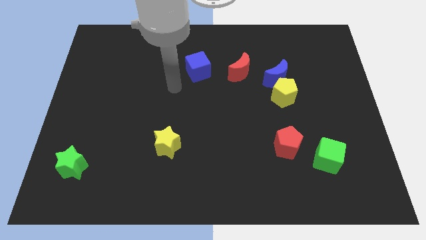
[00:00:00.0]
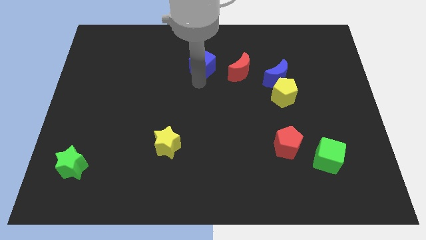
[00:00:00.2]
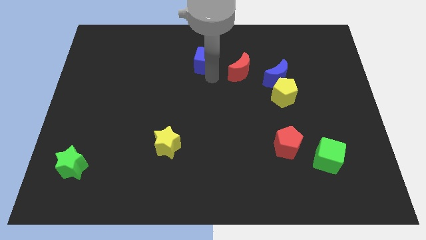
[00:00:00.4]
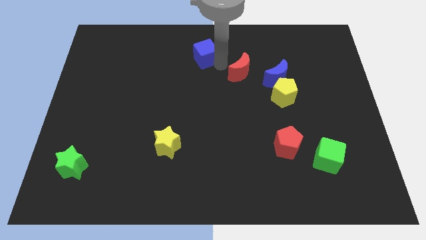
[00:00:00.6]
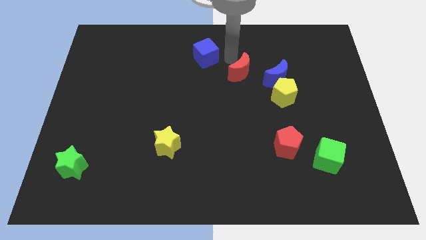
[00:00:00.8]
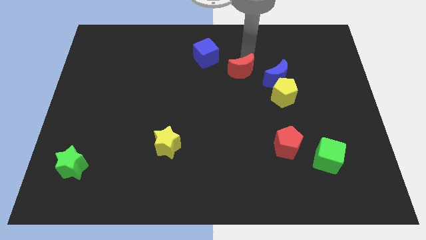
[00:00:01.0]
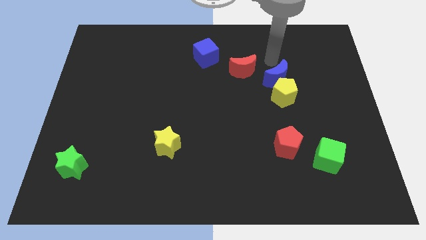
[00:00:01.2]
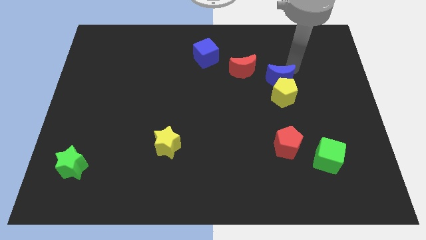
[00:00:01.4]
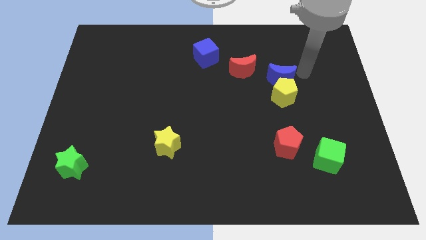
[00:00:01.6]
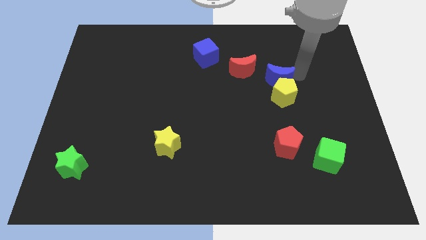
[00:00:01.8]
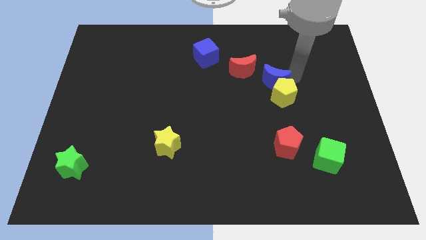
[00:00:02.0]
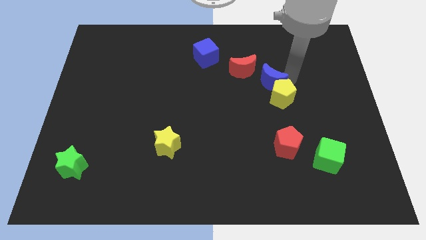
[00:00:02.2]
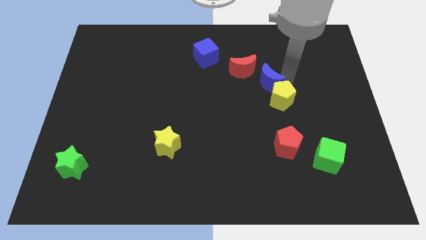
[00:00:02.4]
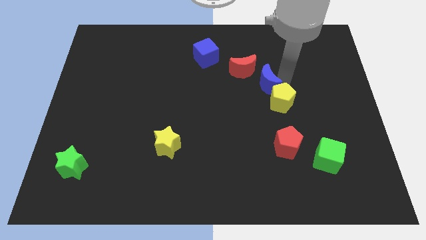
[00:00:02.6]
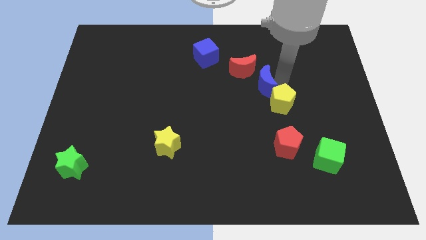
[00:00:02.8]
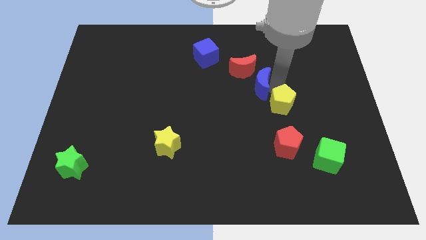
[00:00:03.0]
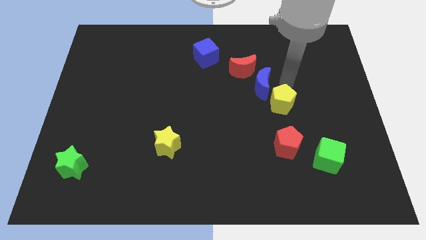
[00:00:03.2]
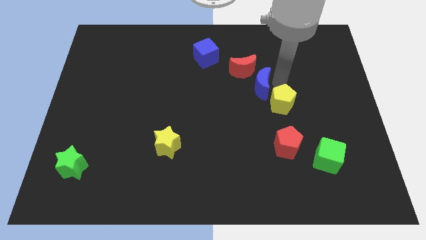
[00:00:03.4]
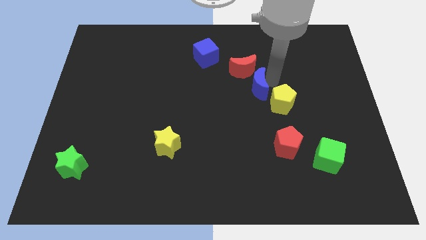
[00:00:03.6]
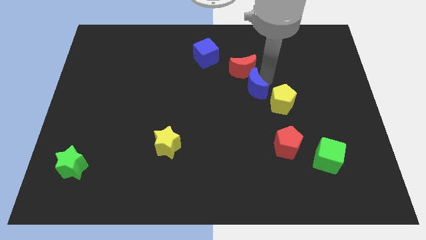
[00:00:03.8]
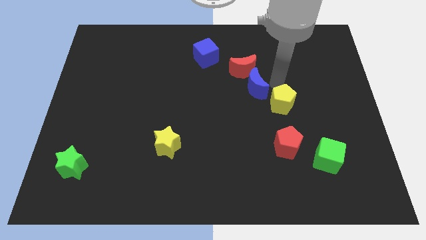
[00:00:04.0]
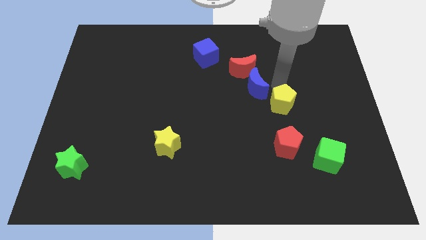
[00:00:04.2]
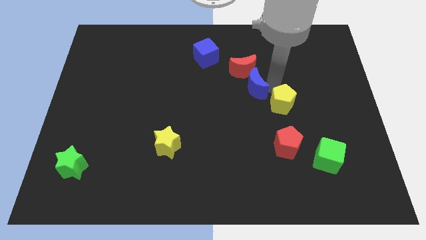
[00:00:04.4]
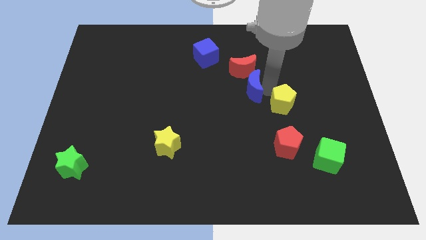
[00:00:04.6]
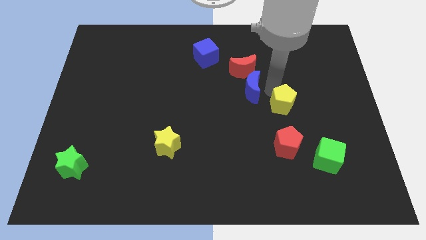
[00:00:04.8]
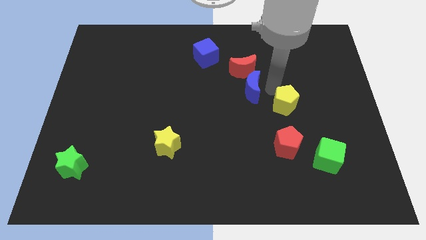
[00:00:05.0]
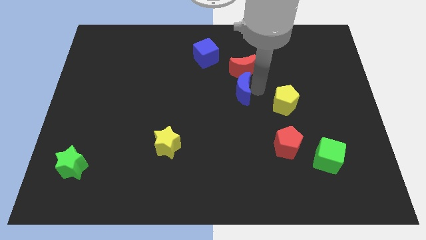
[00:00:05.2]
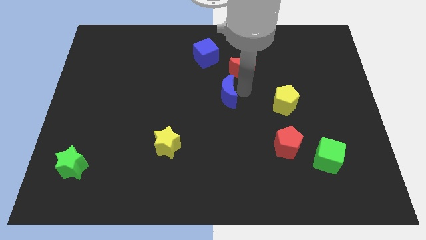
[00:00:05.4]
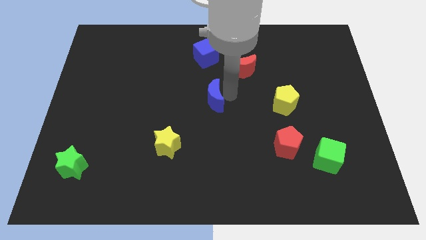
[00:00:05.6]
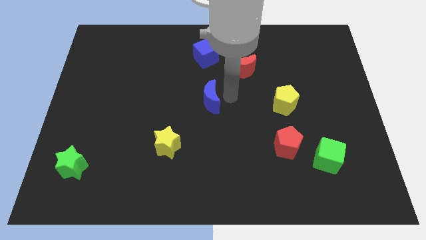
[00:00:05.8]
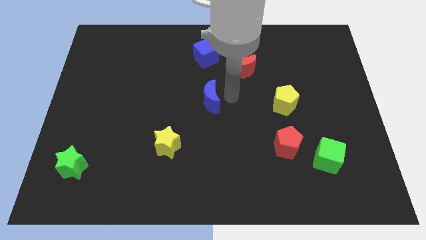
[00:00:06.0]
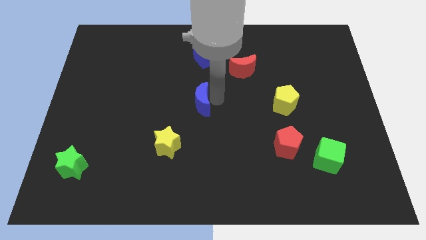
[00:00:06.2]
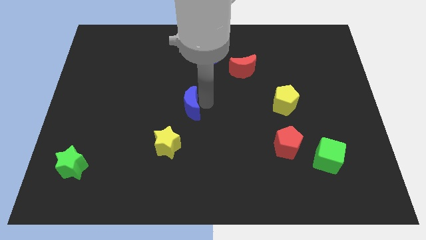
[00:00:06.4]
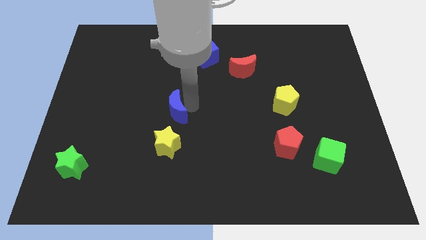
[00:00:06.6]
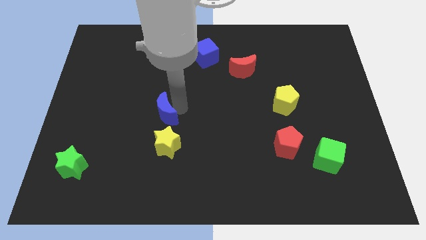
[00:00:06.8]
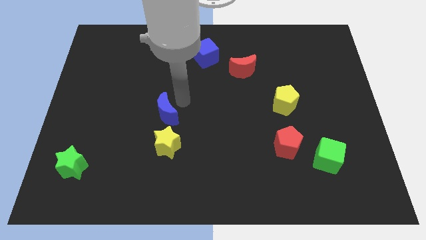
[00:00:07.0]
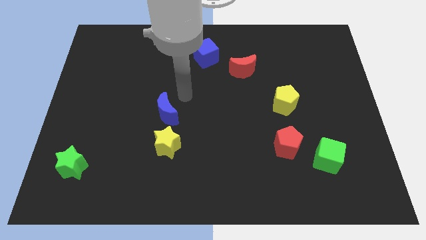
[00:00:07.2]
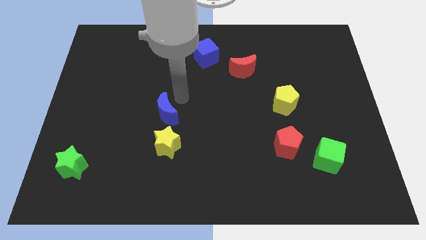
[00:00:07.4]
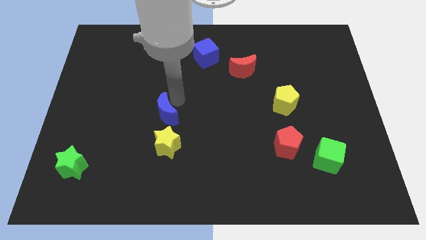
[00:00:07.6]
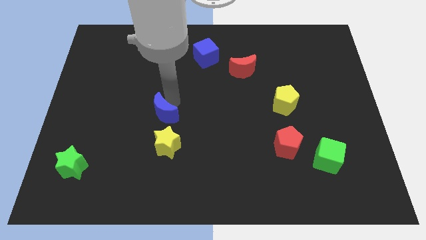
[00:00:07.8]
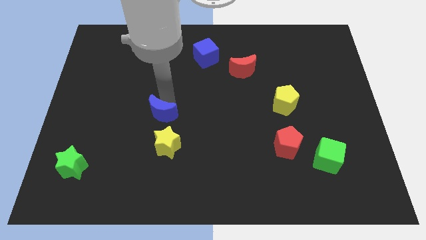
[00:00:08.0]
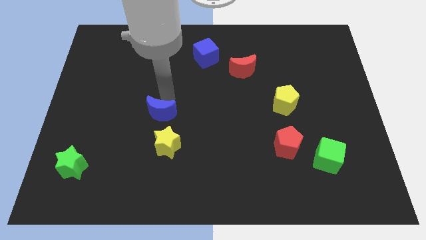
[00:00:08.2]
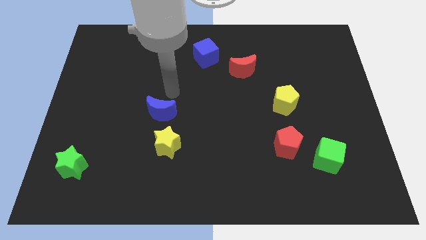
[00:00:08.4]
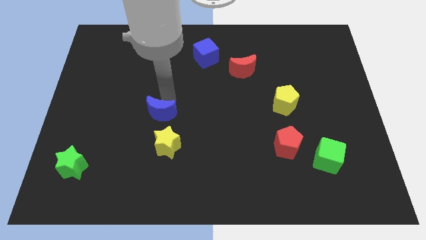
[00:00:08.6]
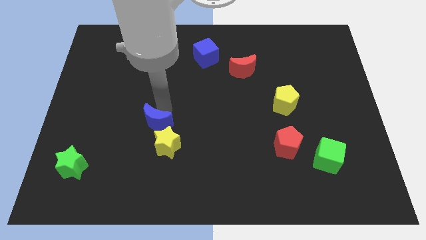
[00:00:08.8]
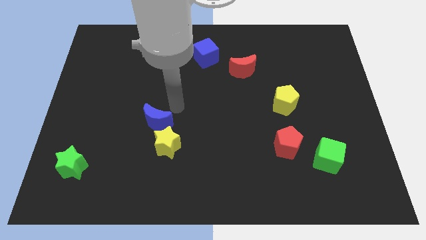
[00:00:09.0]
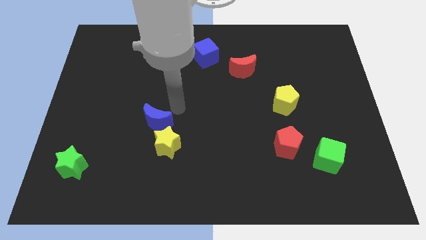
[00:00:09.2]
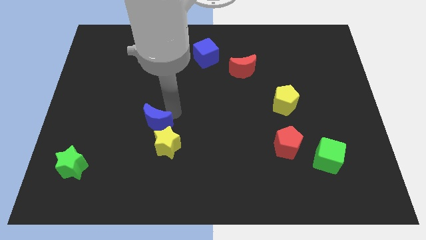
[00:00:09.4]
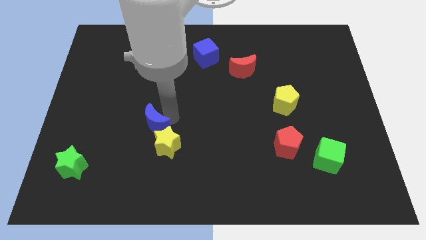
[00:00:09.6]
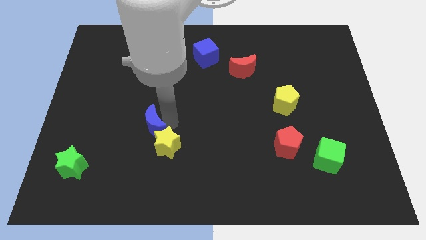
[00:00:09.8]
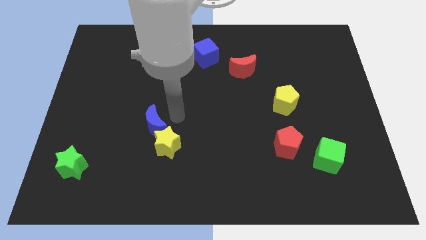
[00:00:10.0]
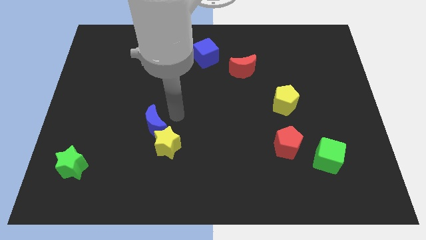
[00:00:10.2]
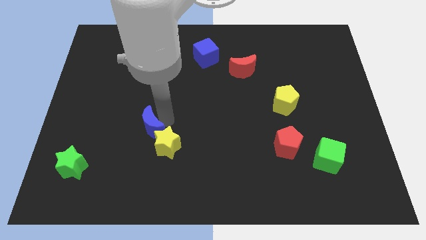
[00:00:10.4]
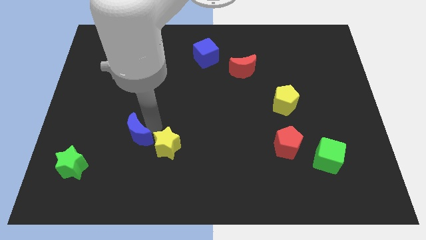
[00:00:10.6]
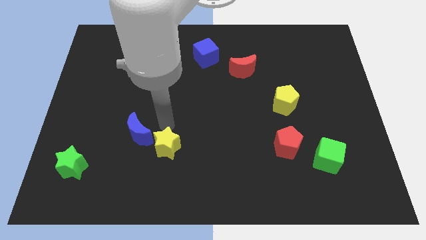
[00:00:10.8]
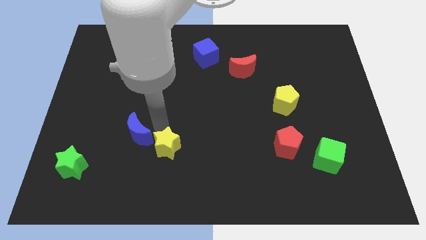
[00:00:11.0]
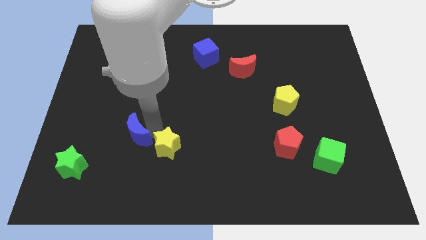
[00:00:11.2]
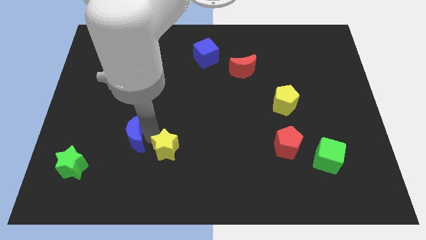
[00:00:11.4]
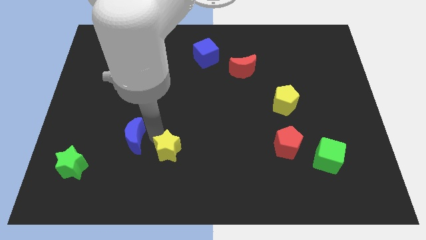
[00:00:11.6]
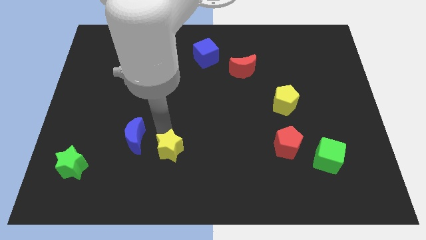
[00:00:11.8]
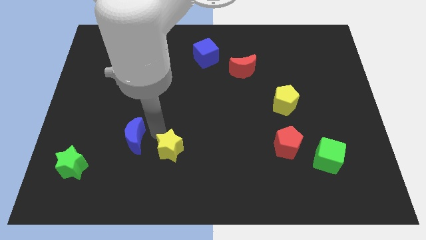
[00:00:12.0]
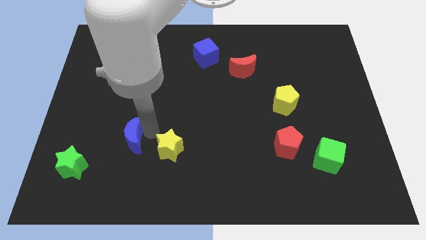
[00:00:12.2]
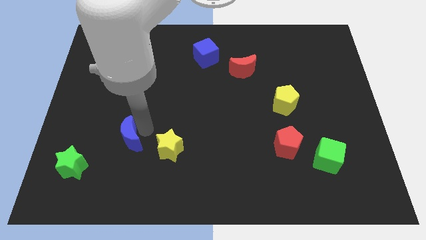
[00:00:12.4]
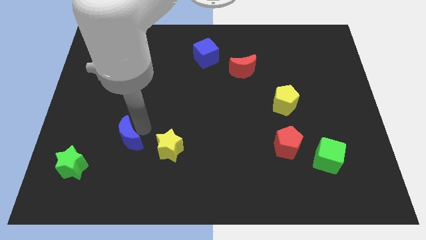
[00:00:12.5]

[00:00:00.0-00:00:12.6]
push the blue moon diagonally up and to the right of the green star
